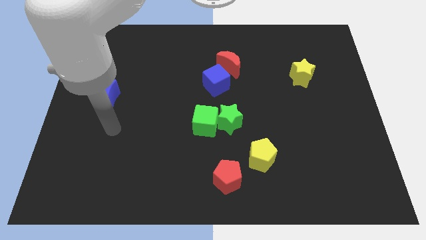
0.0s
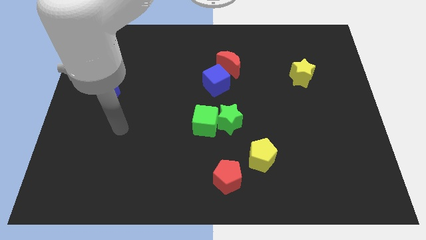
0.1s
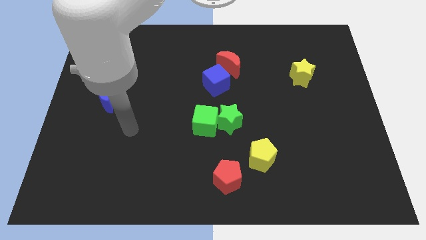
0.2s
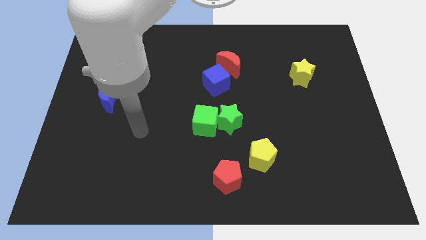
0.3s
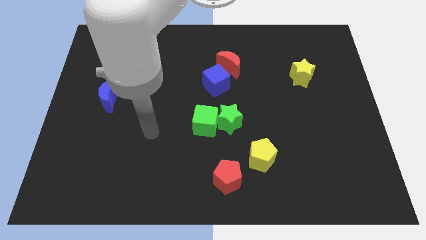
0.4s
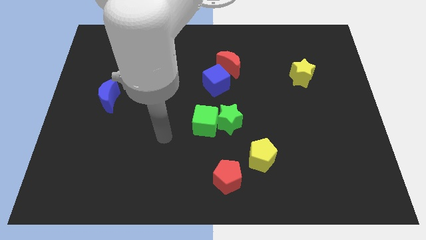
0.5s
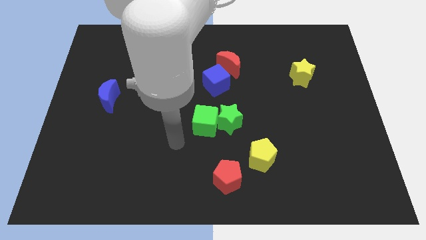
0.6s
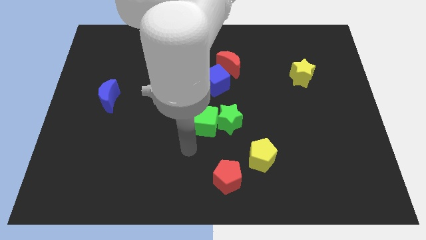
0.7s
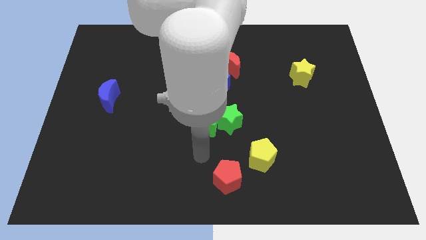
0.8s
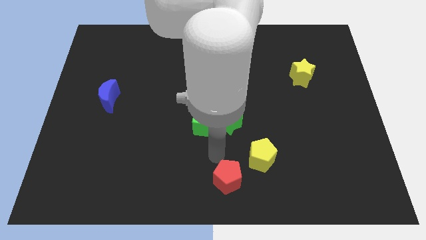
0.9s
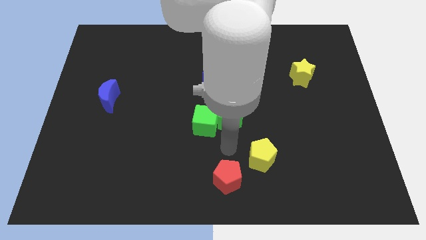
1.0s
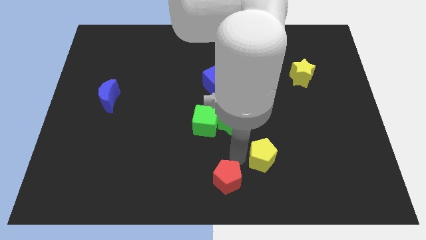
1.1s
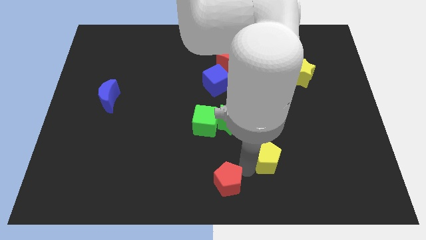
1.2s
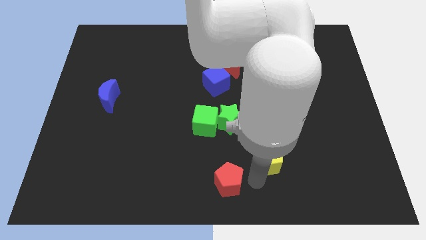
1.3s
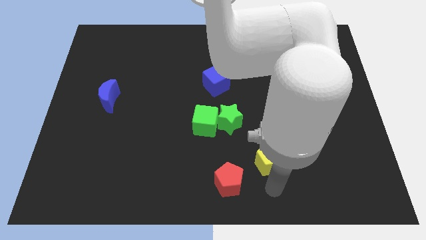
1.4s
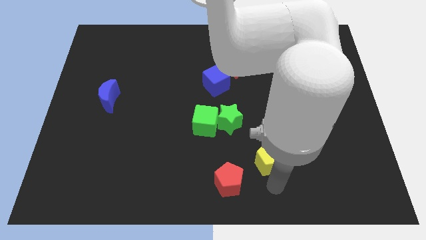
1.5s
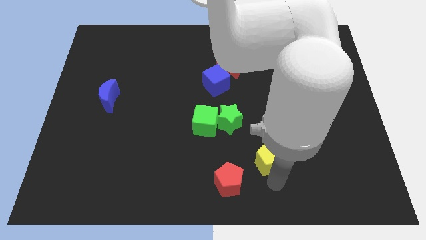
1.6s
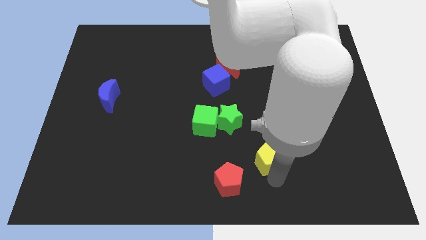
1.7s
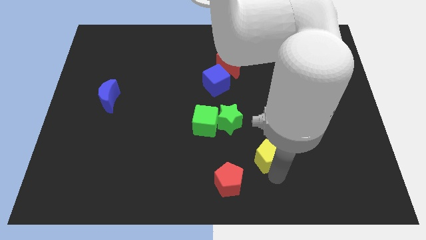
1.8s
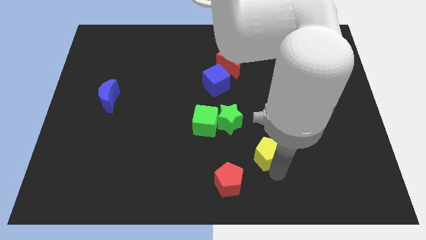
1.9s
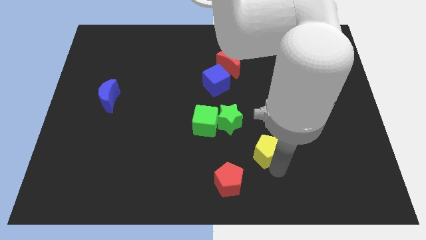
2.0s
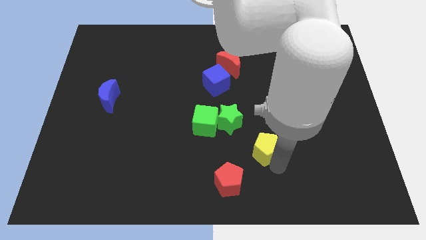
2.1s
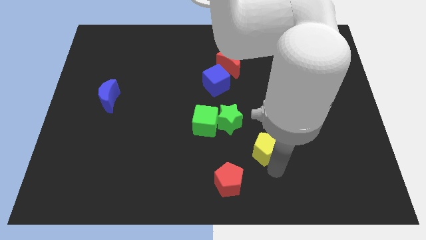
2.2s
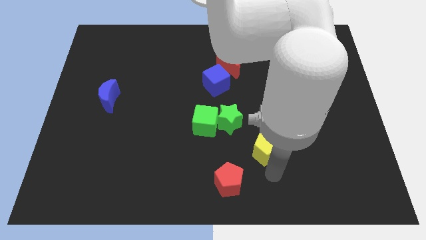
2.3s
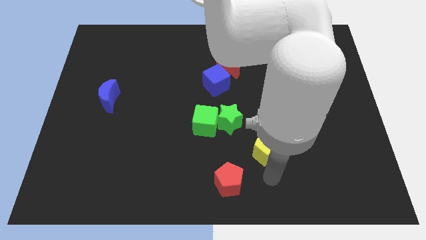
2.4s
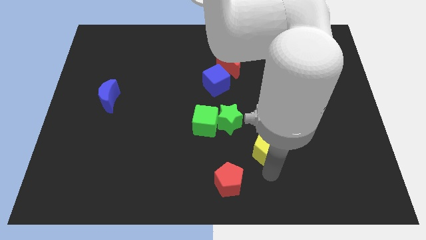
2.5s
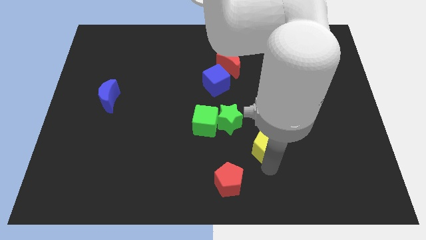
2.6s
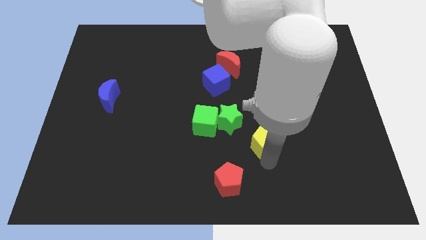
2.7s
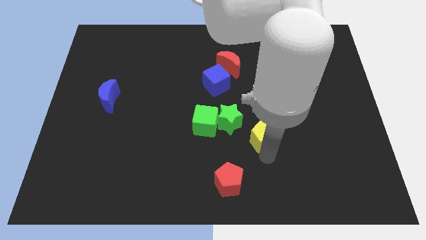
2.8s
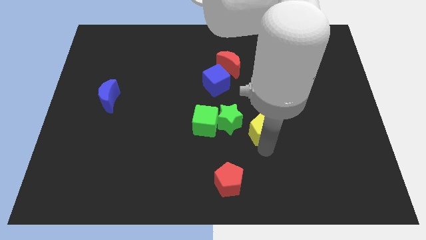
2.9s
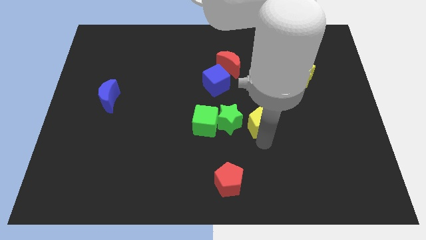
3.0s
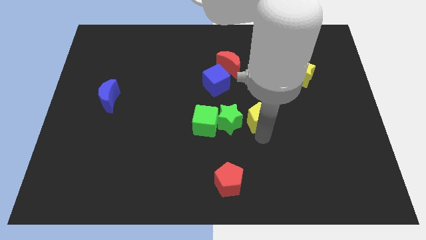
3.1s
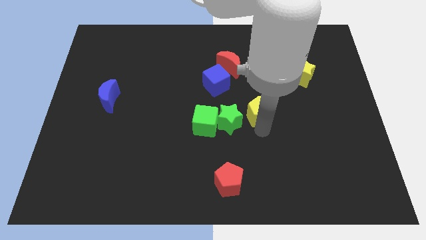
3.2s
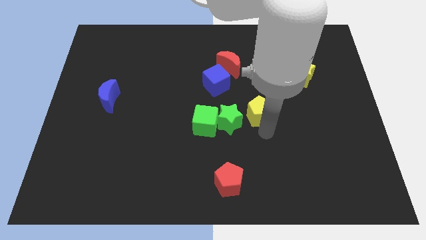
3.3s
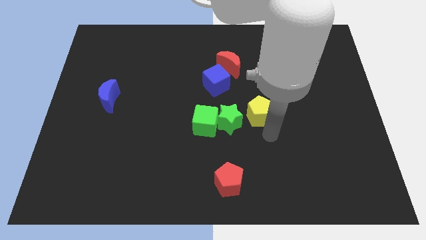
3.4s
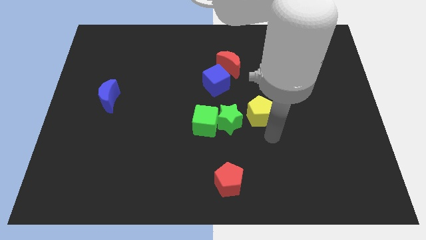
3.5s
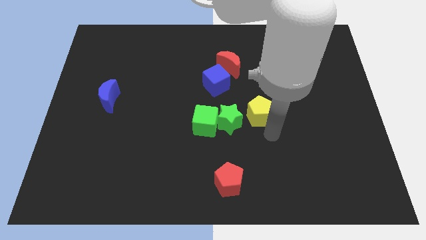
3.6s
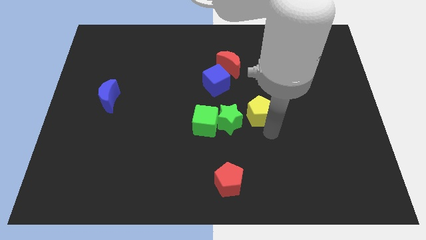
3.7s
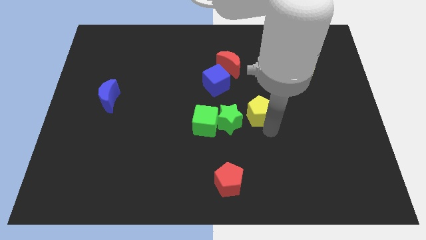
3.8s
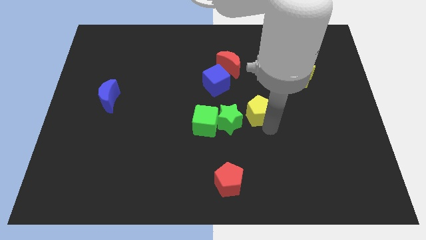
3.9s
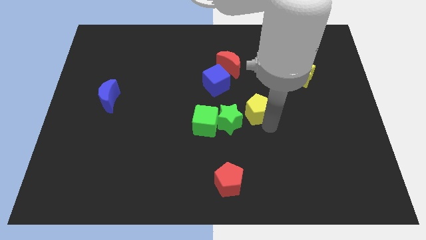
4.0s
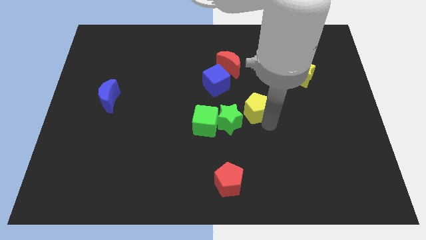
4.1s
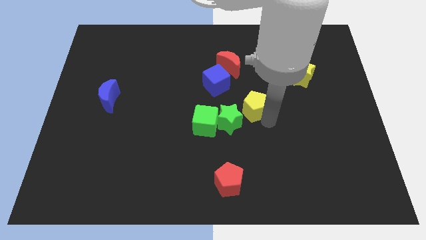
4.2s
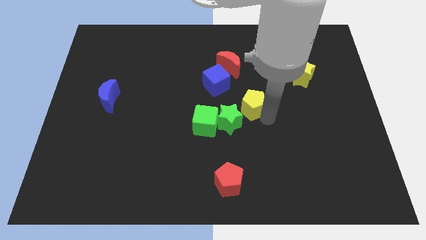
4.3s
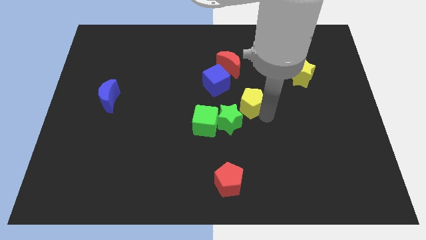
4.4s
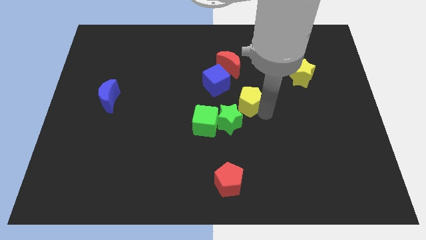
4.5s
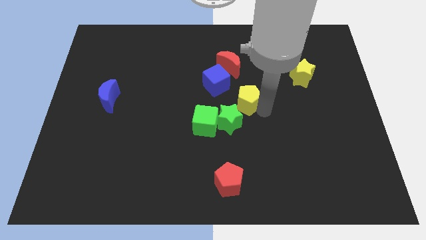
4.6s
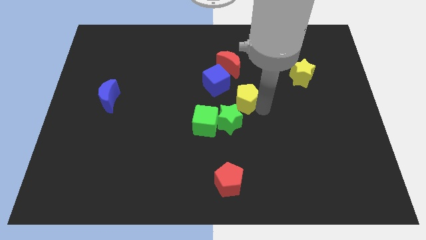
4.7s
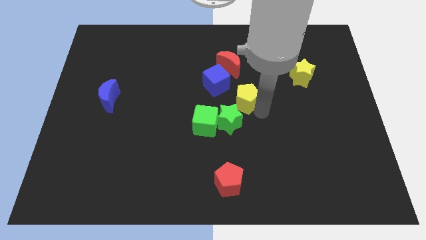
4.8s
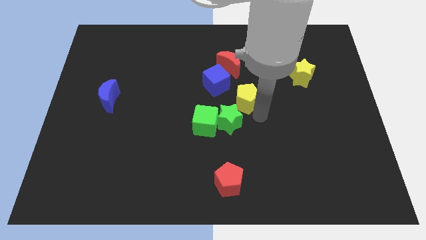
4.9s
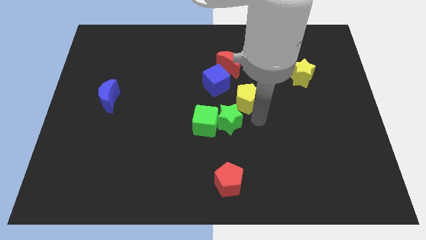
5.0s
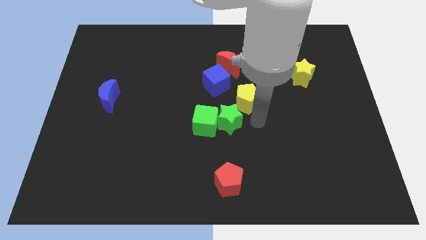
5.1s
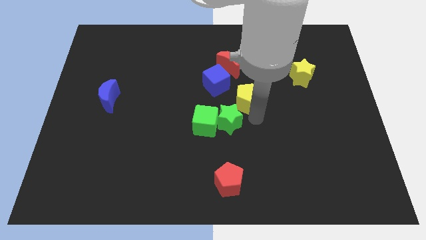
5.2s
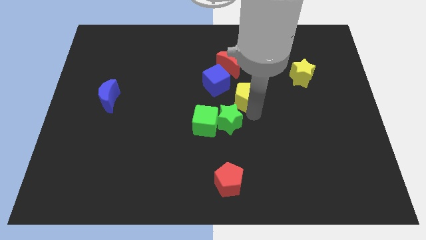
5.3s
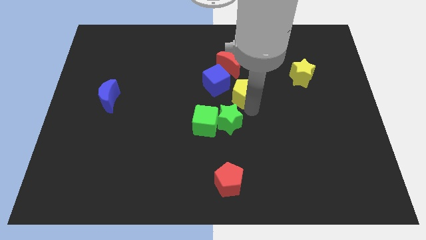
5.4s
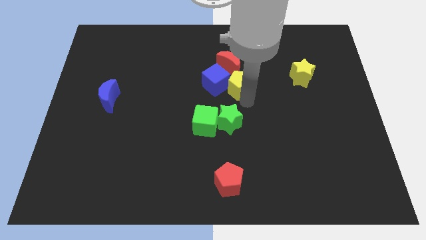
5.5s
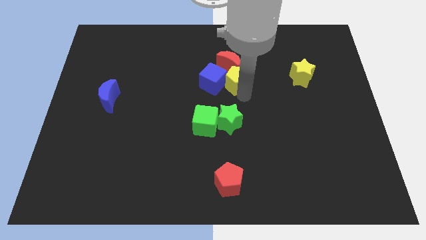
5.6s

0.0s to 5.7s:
put the yellow pentagon to the red moon
